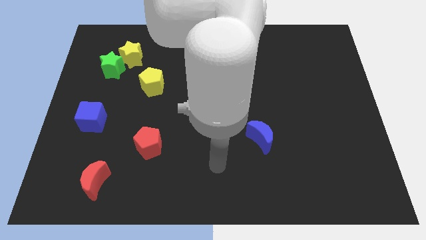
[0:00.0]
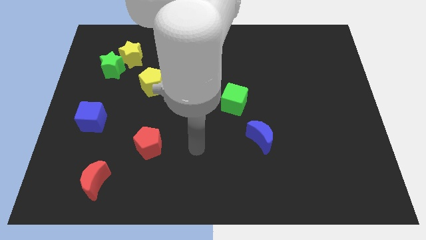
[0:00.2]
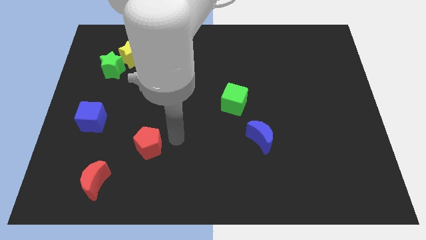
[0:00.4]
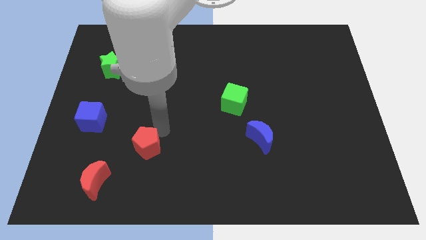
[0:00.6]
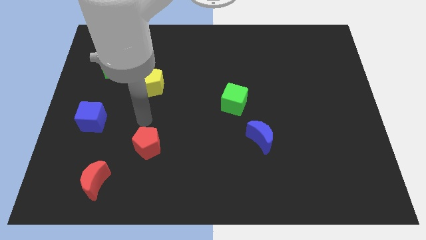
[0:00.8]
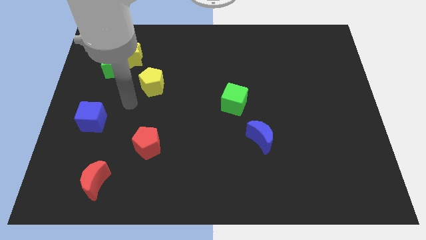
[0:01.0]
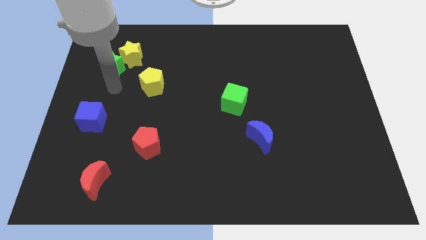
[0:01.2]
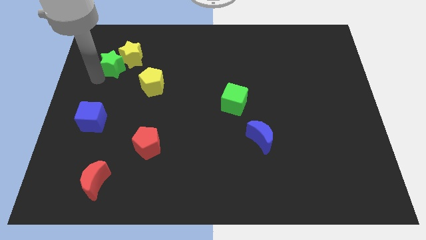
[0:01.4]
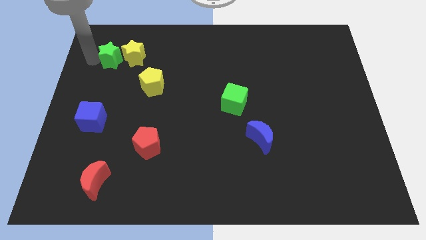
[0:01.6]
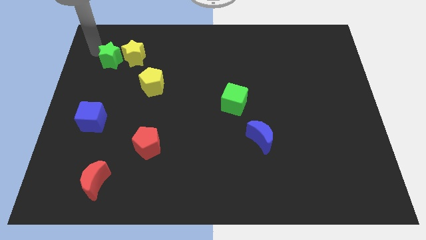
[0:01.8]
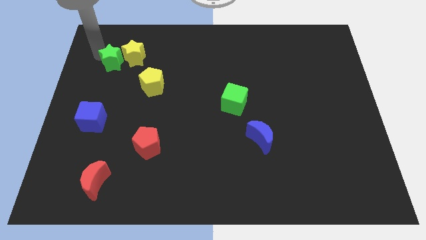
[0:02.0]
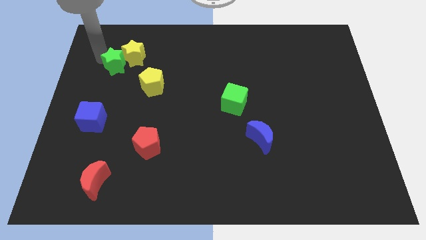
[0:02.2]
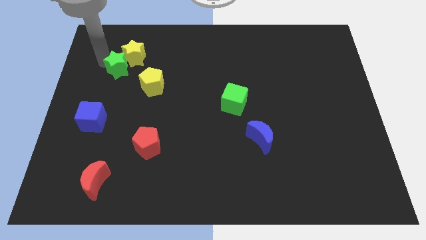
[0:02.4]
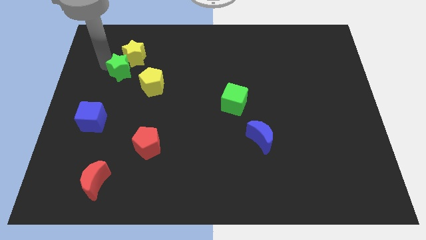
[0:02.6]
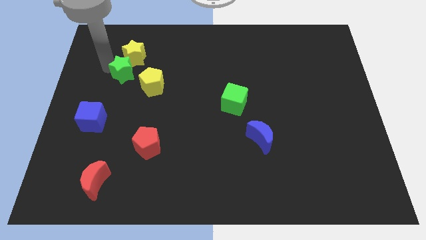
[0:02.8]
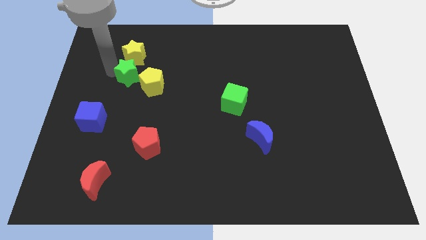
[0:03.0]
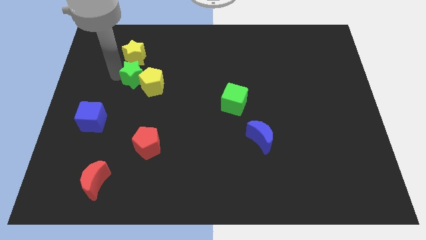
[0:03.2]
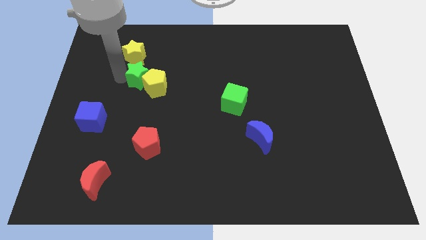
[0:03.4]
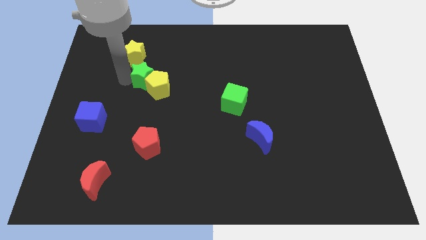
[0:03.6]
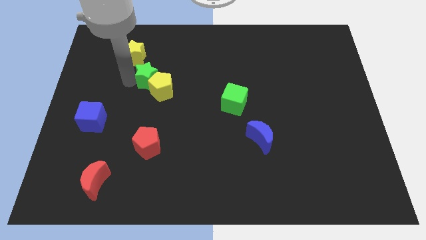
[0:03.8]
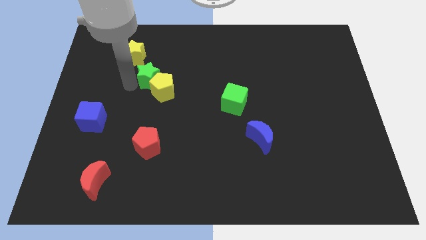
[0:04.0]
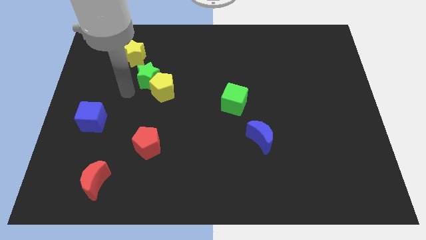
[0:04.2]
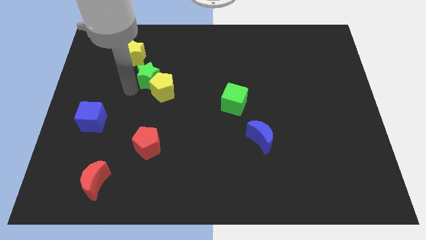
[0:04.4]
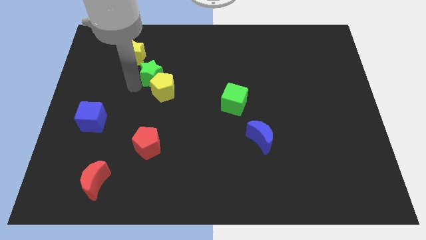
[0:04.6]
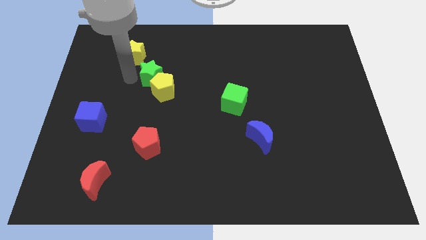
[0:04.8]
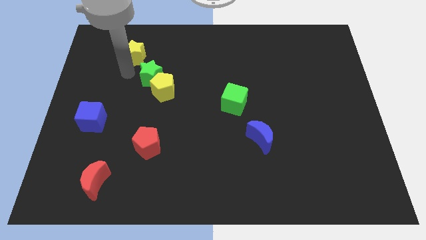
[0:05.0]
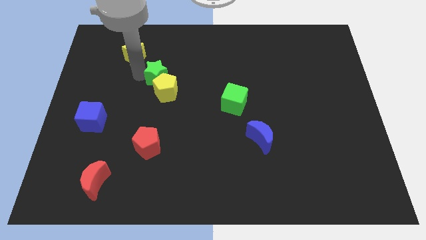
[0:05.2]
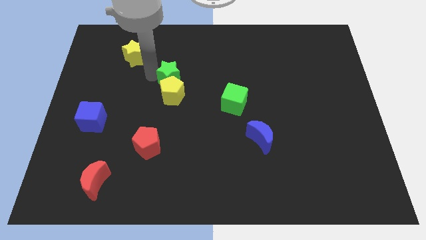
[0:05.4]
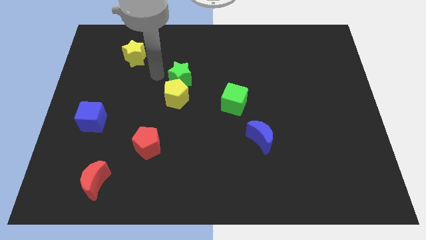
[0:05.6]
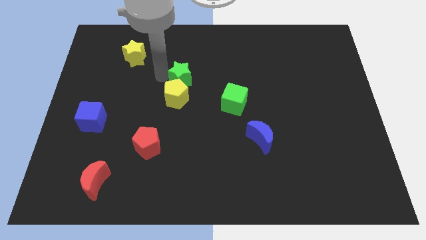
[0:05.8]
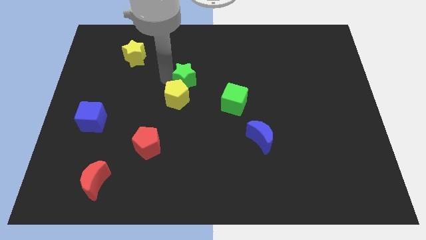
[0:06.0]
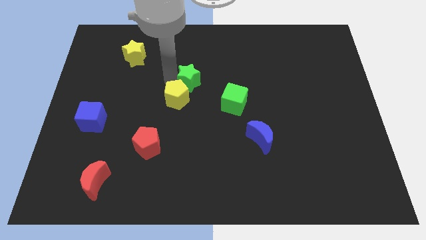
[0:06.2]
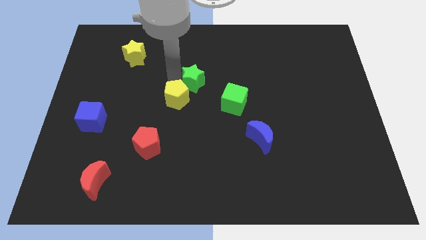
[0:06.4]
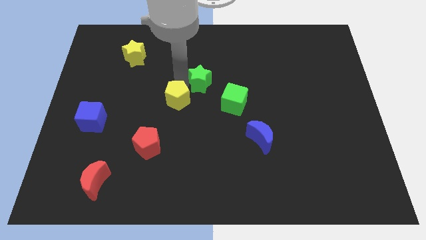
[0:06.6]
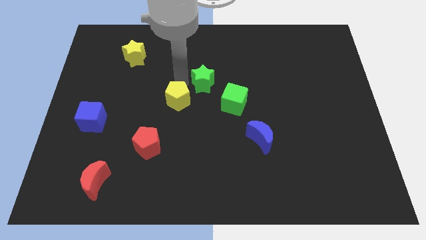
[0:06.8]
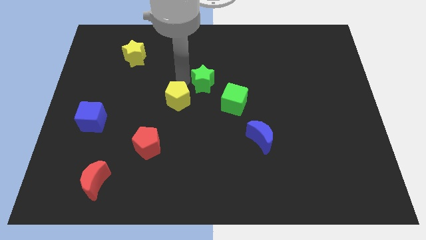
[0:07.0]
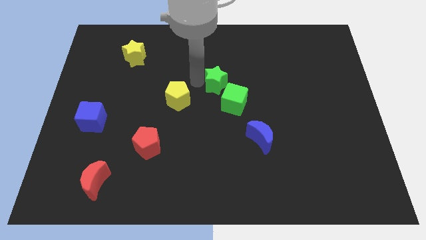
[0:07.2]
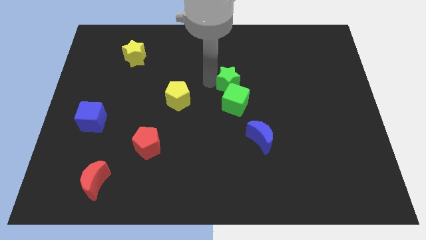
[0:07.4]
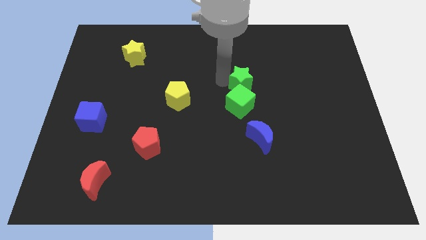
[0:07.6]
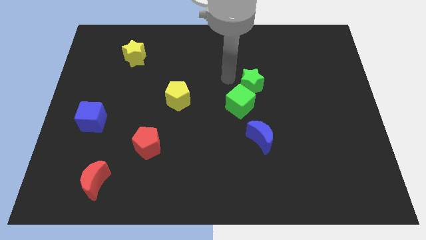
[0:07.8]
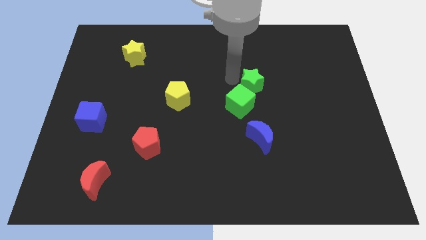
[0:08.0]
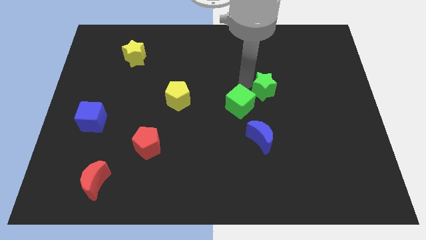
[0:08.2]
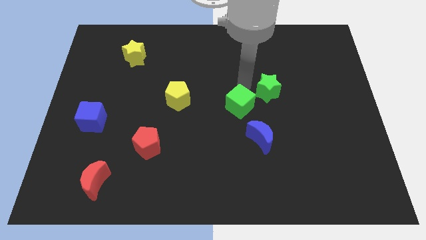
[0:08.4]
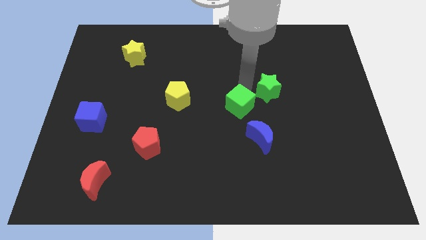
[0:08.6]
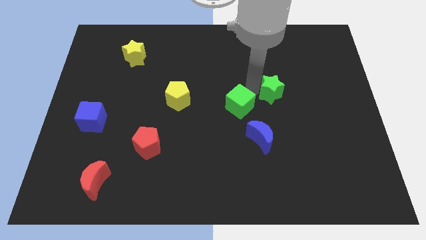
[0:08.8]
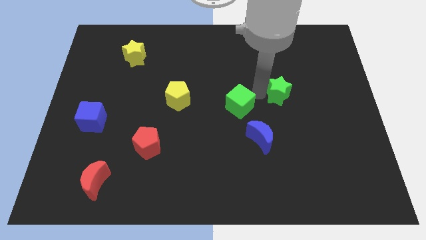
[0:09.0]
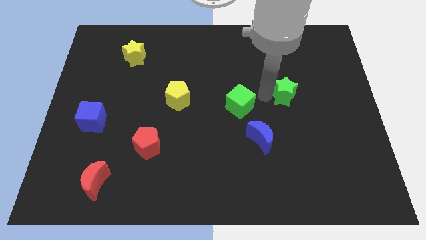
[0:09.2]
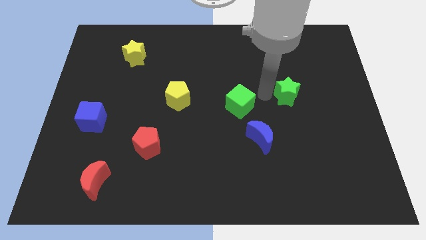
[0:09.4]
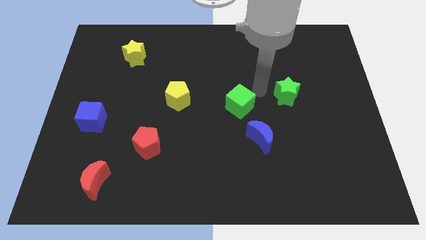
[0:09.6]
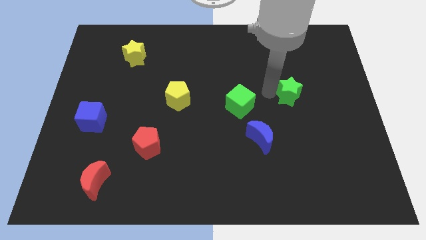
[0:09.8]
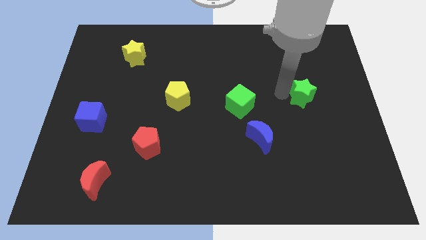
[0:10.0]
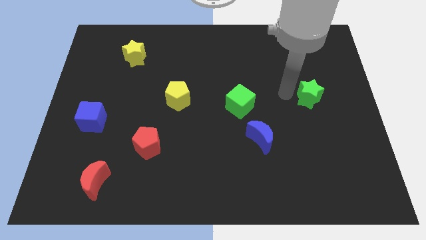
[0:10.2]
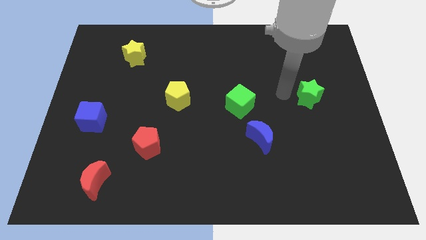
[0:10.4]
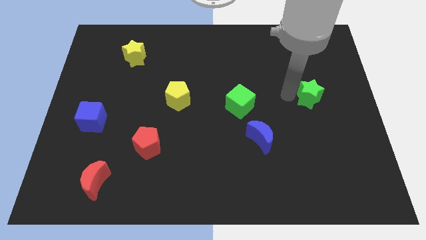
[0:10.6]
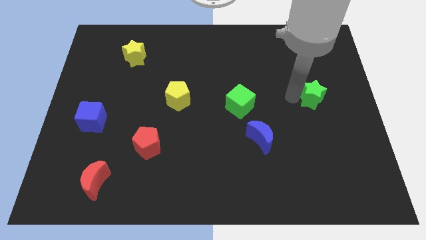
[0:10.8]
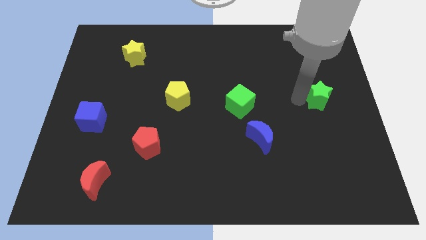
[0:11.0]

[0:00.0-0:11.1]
push the green star to the right side of the board

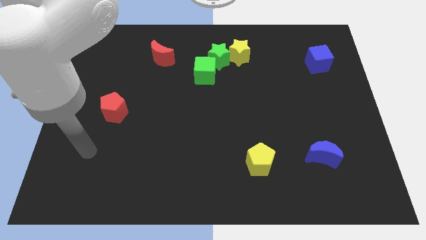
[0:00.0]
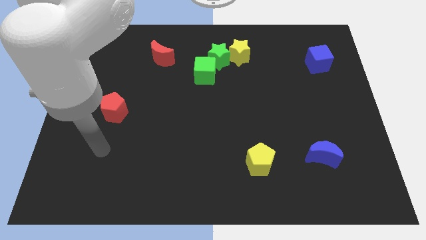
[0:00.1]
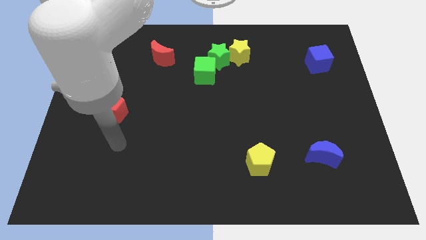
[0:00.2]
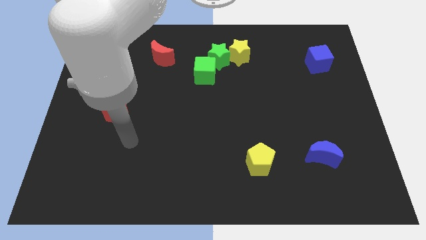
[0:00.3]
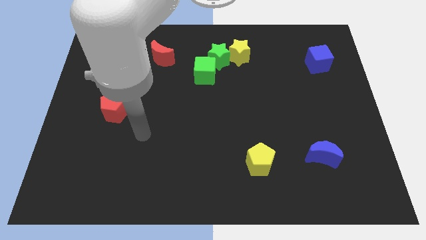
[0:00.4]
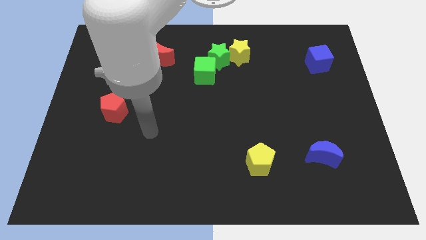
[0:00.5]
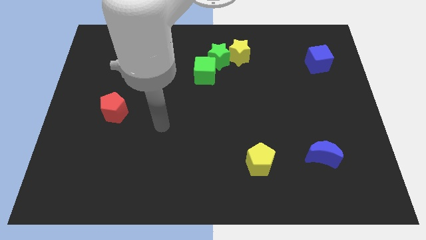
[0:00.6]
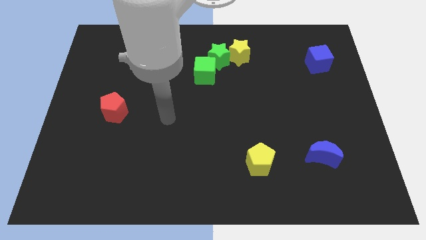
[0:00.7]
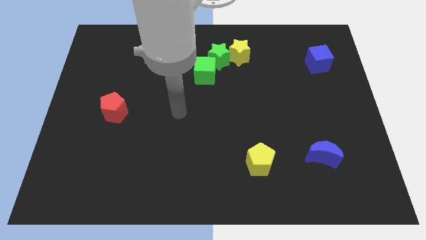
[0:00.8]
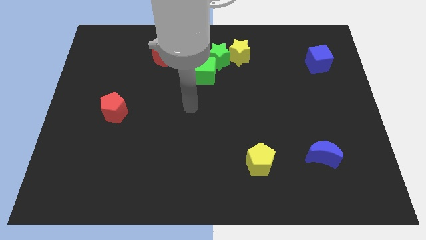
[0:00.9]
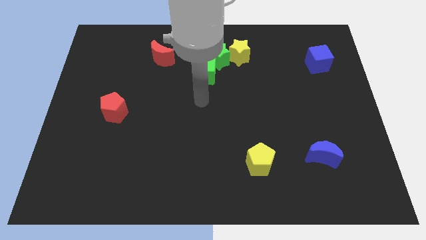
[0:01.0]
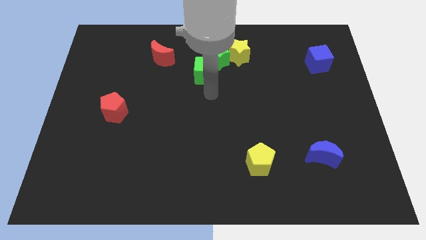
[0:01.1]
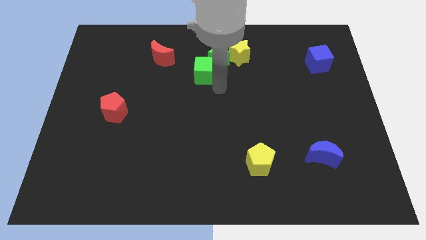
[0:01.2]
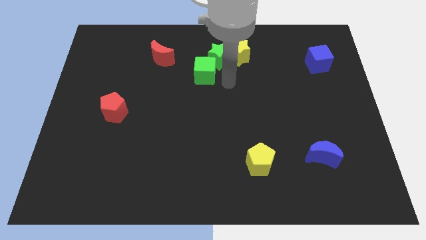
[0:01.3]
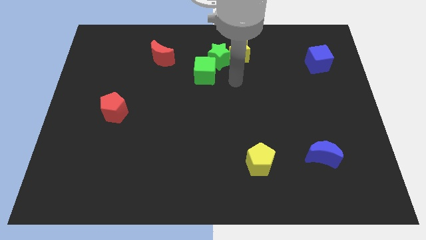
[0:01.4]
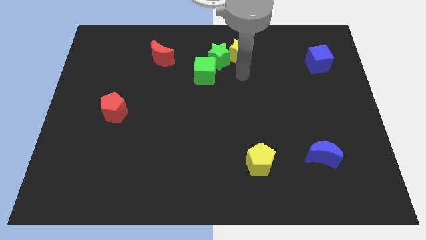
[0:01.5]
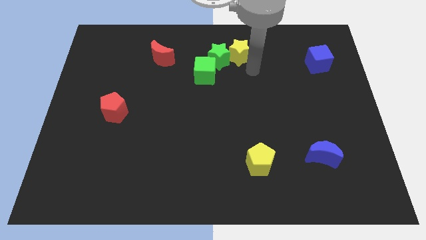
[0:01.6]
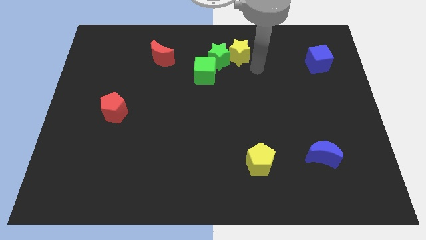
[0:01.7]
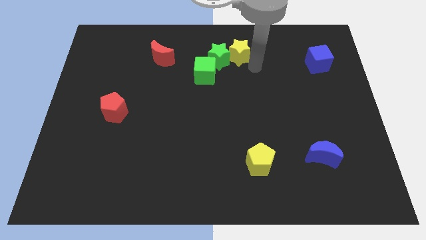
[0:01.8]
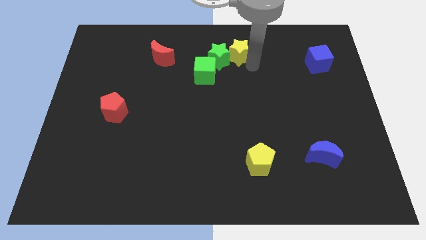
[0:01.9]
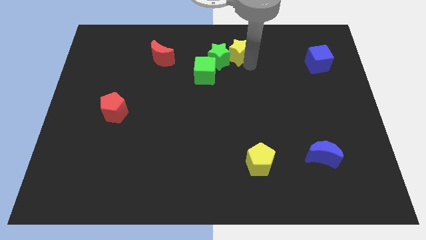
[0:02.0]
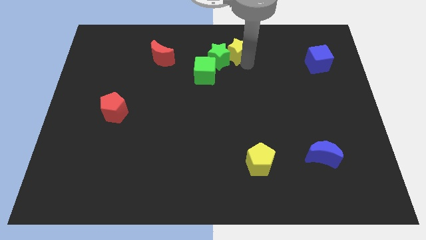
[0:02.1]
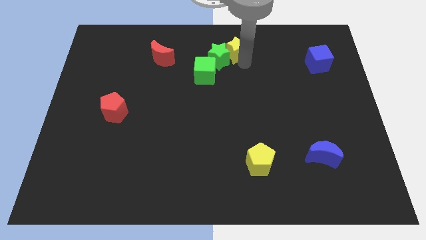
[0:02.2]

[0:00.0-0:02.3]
push the yellow star to the towards your base
